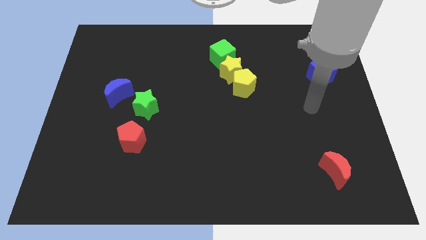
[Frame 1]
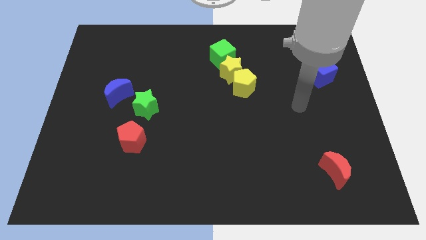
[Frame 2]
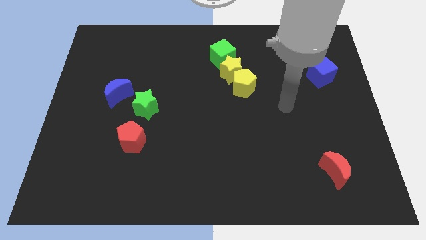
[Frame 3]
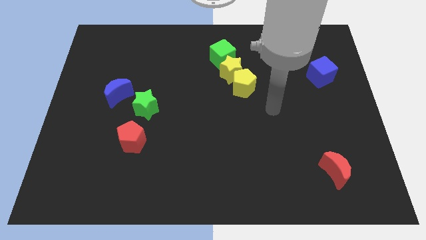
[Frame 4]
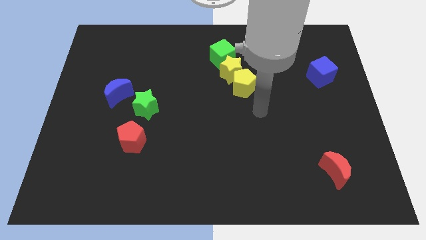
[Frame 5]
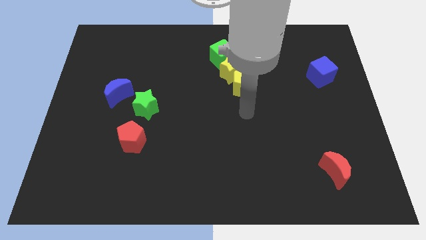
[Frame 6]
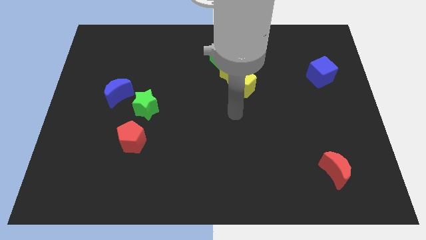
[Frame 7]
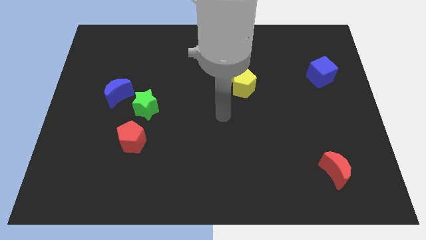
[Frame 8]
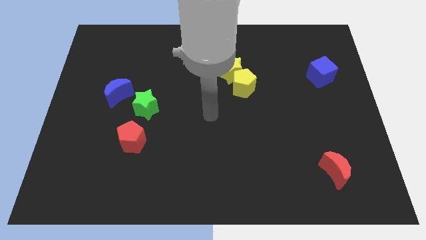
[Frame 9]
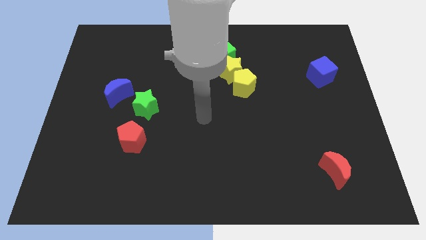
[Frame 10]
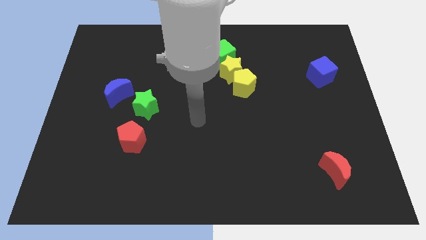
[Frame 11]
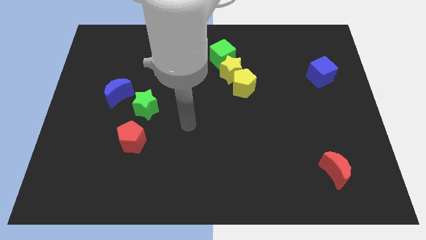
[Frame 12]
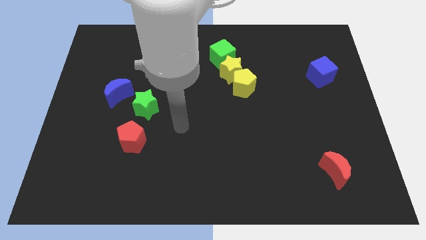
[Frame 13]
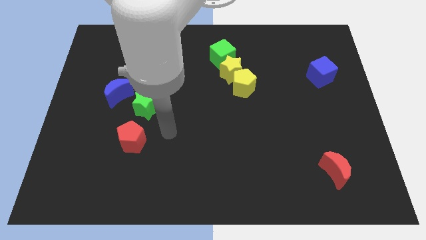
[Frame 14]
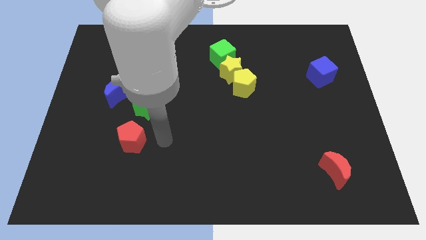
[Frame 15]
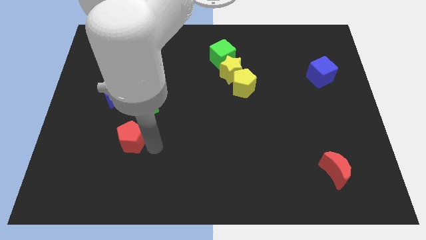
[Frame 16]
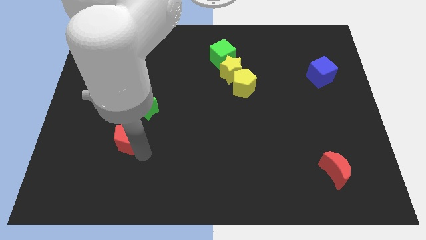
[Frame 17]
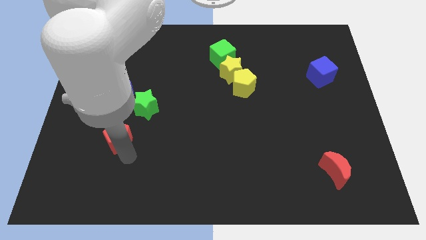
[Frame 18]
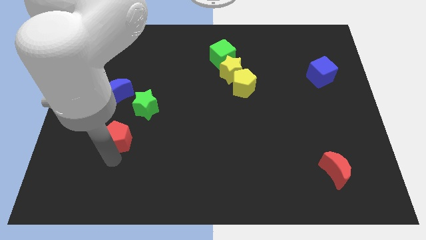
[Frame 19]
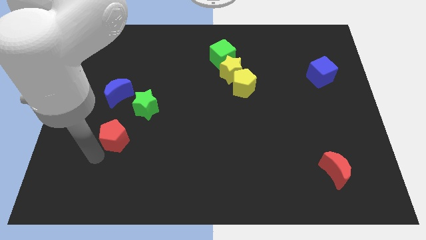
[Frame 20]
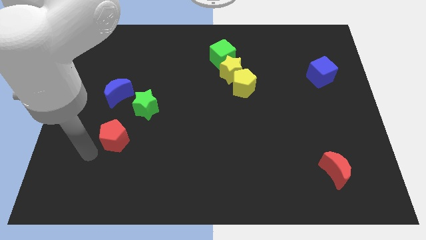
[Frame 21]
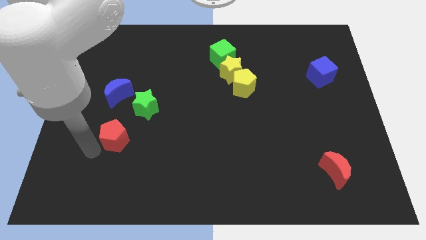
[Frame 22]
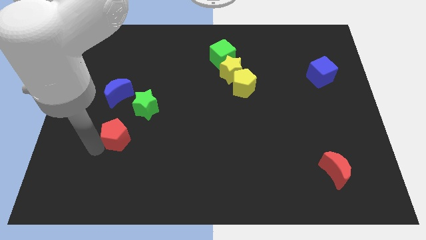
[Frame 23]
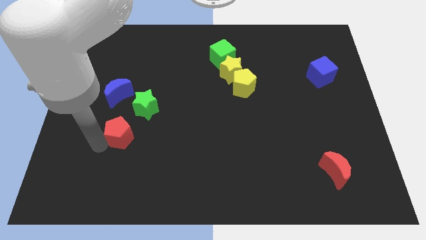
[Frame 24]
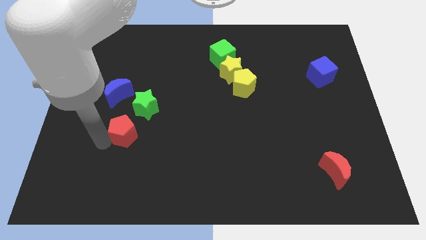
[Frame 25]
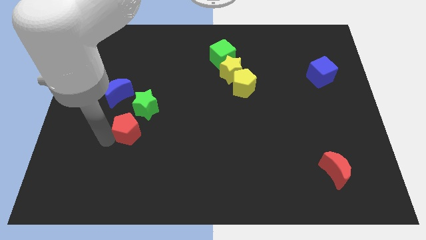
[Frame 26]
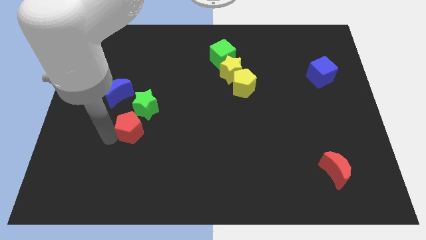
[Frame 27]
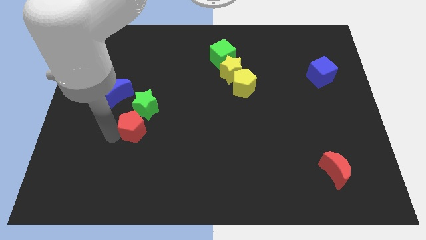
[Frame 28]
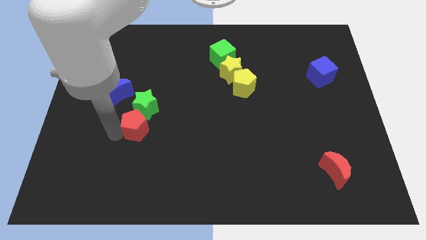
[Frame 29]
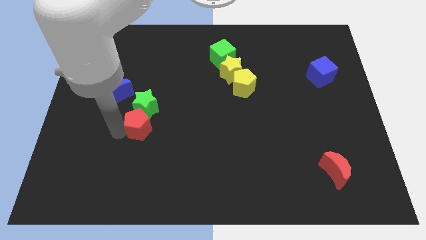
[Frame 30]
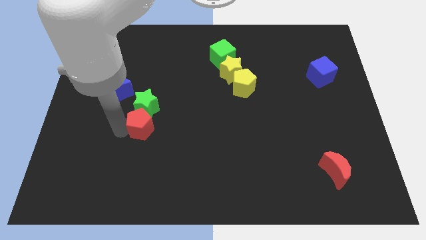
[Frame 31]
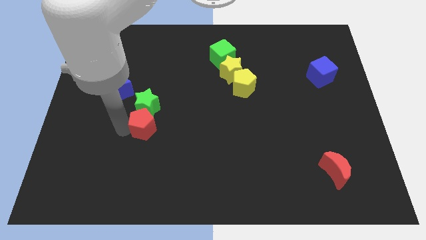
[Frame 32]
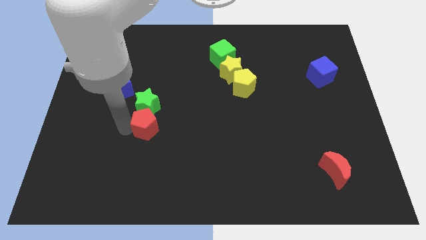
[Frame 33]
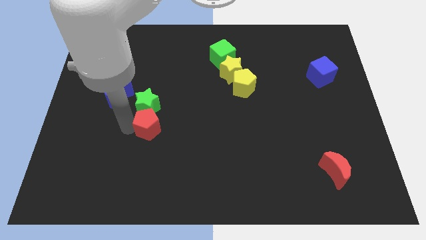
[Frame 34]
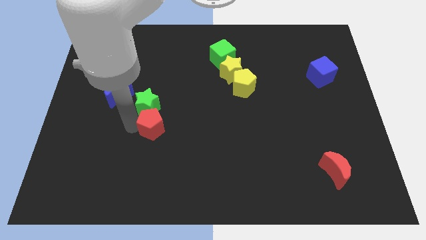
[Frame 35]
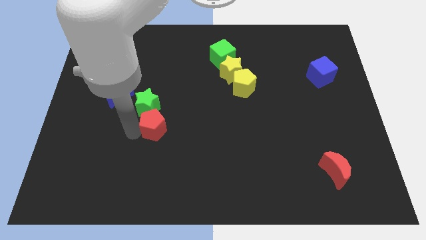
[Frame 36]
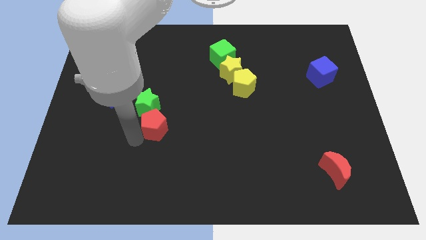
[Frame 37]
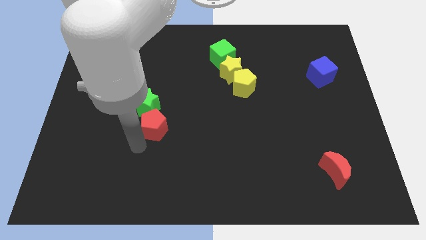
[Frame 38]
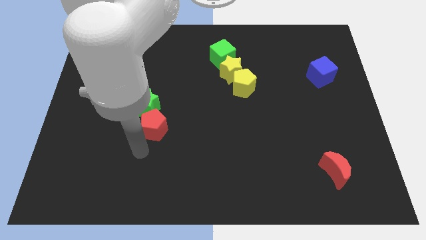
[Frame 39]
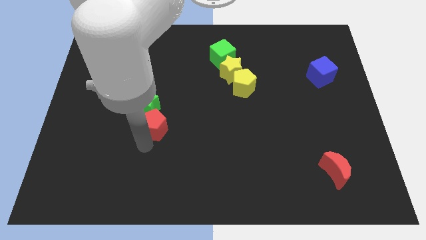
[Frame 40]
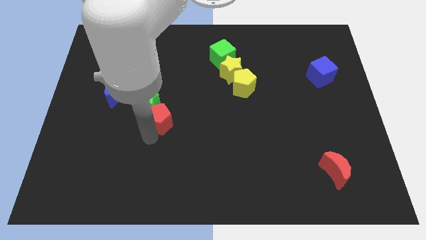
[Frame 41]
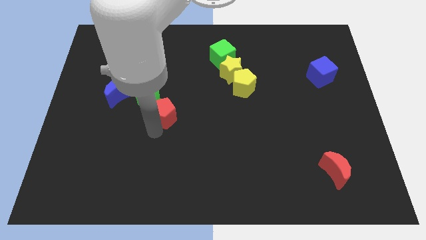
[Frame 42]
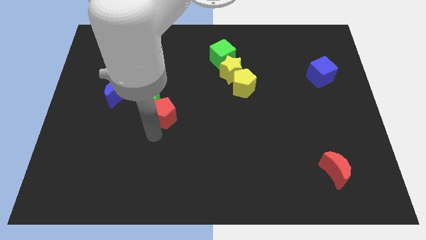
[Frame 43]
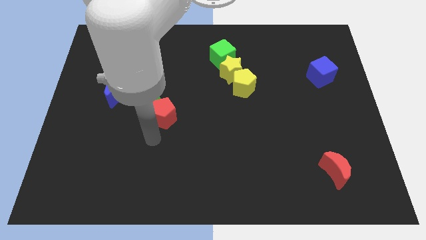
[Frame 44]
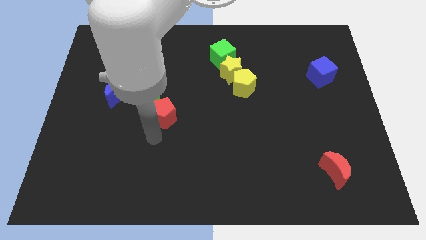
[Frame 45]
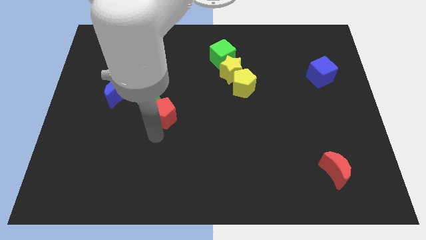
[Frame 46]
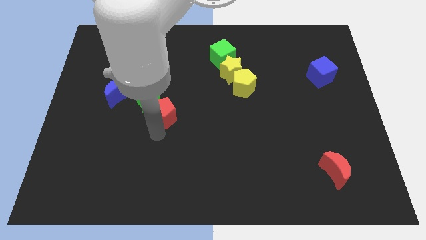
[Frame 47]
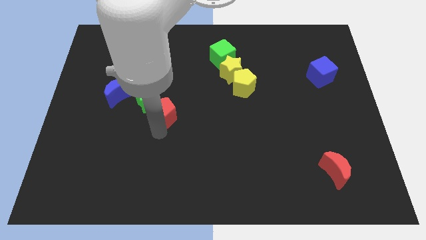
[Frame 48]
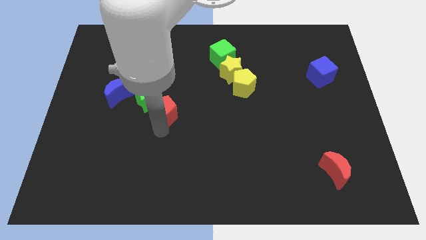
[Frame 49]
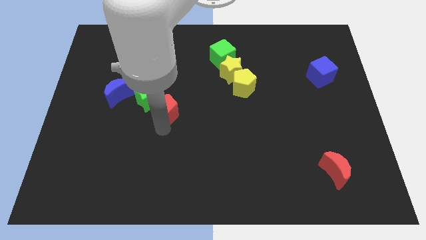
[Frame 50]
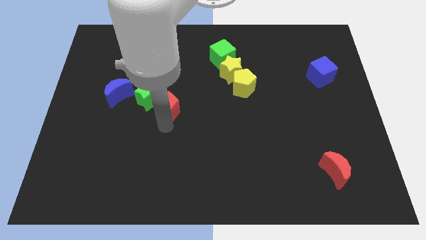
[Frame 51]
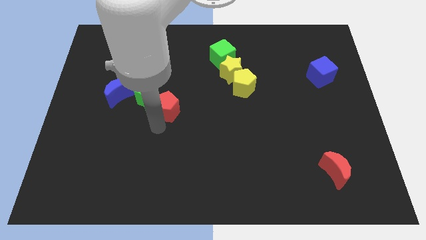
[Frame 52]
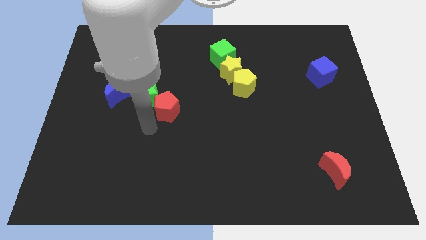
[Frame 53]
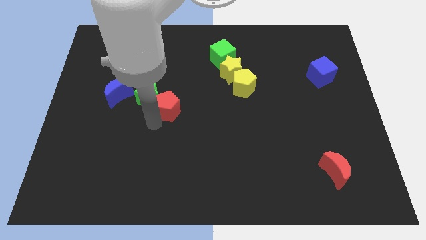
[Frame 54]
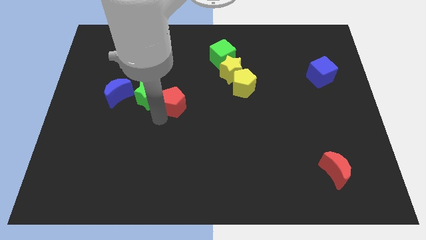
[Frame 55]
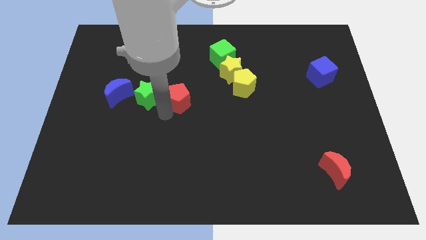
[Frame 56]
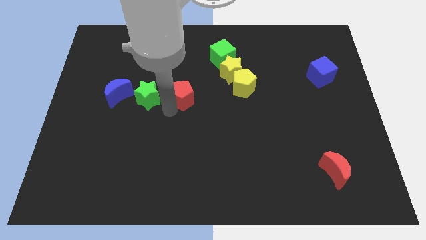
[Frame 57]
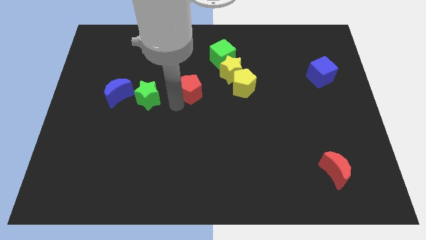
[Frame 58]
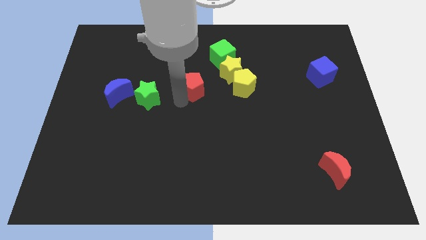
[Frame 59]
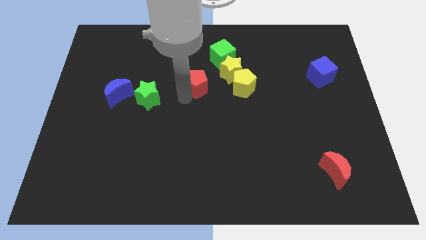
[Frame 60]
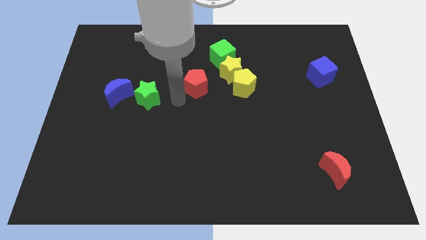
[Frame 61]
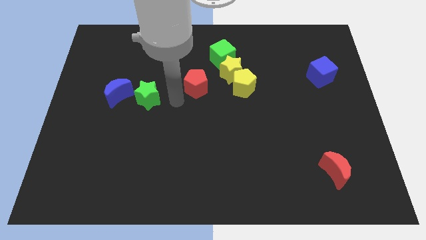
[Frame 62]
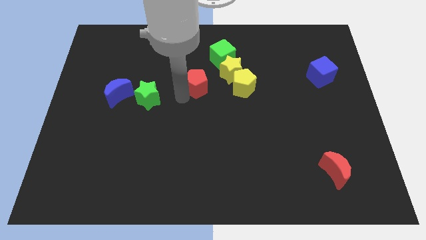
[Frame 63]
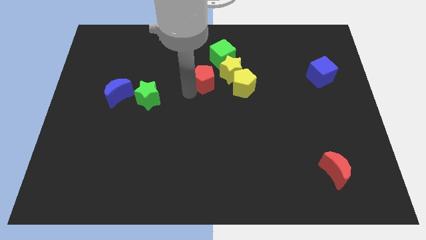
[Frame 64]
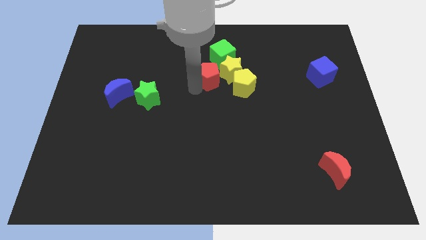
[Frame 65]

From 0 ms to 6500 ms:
push the red pentagon diagonally up and to the left of the yellow pentagon

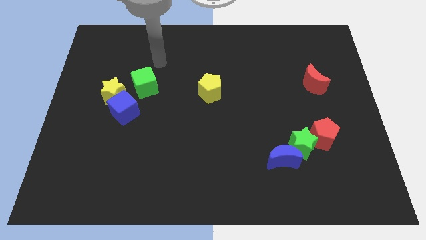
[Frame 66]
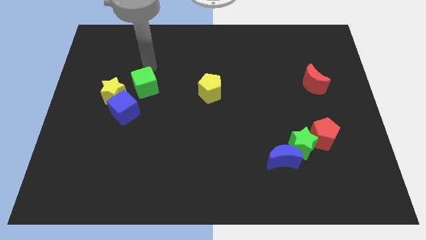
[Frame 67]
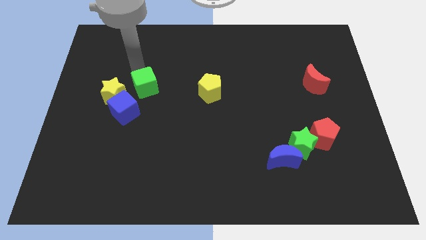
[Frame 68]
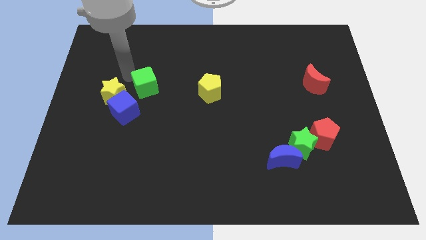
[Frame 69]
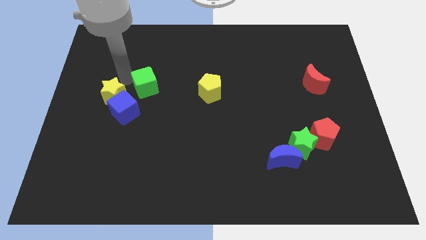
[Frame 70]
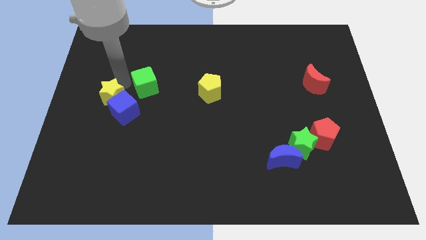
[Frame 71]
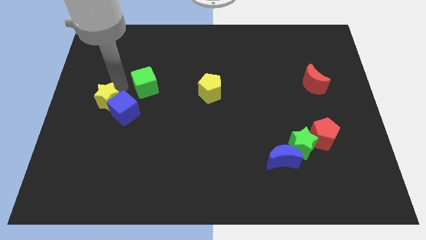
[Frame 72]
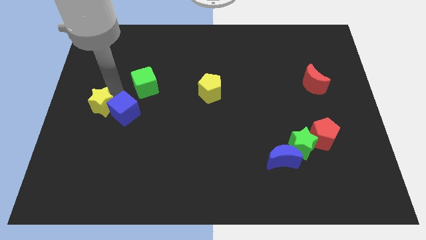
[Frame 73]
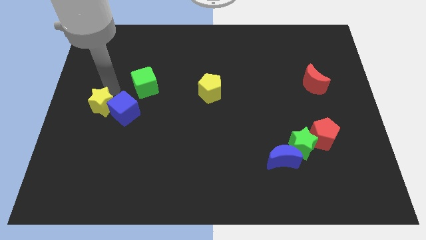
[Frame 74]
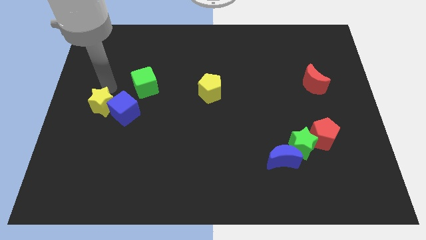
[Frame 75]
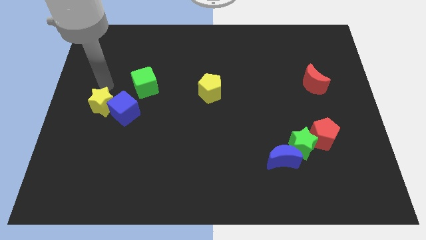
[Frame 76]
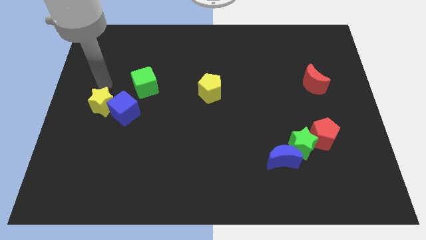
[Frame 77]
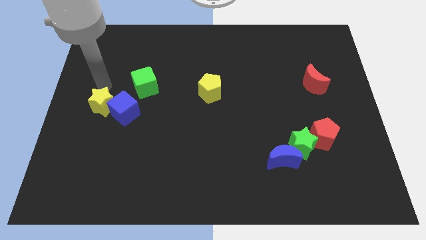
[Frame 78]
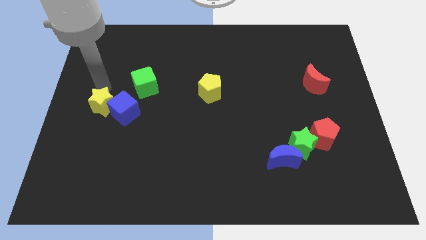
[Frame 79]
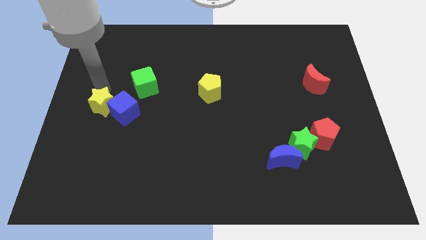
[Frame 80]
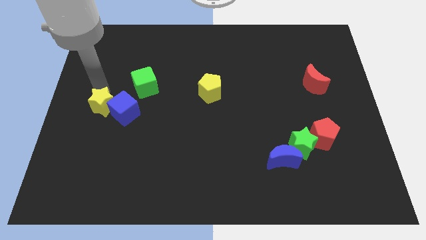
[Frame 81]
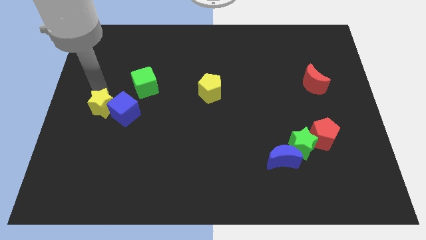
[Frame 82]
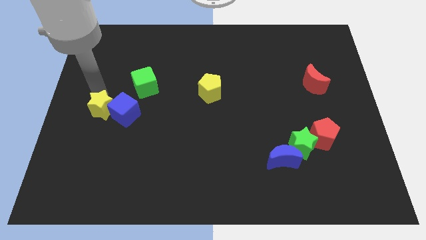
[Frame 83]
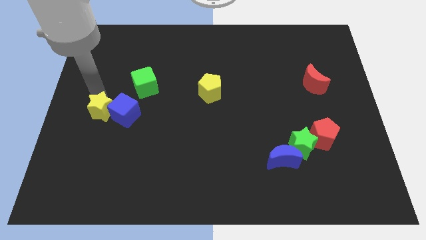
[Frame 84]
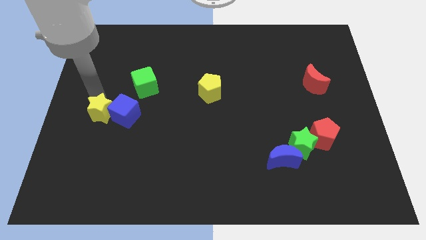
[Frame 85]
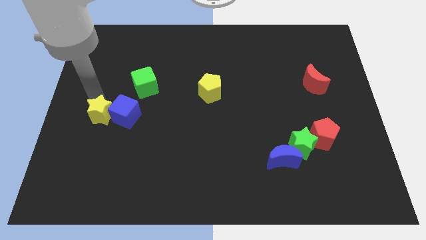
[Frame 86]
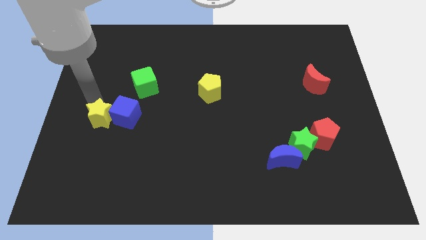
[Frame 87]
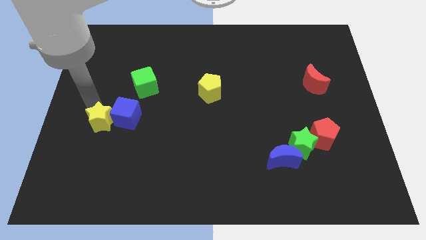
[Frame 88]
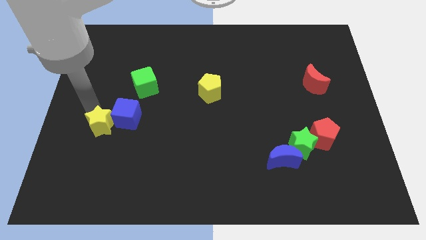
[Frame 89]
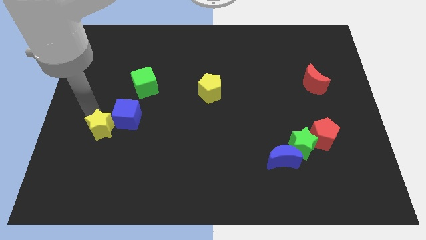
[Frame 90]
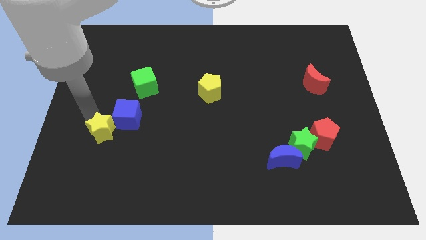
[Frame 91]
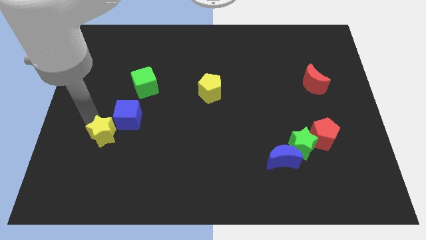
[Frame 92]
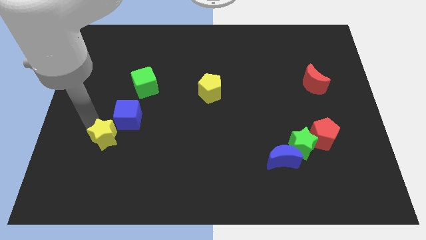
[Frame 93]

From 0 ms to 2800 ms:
slide the yellow star below the blue cube
